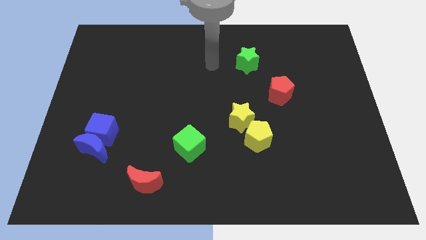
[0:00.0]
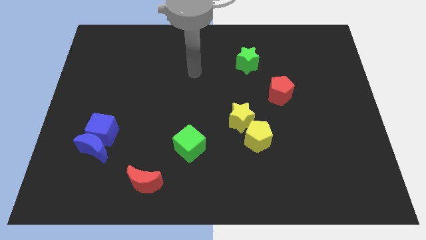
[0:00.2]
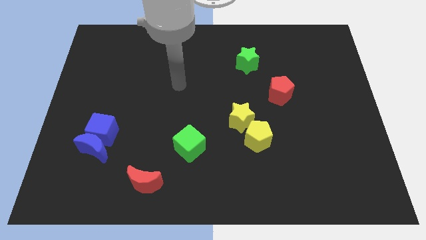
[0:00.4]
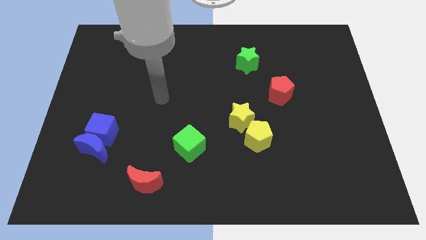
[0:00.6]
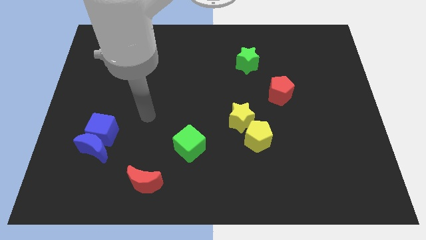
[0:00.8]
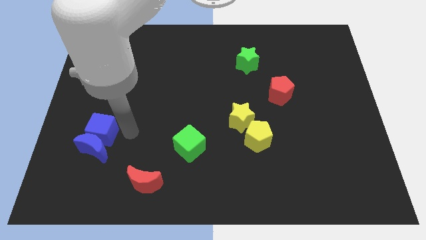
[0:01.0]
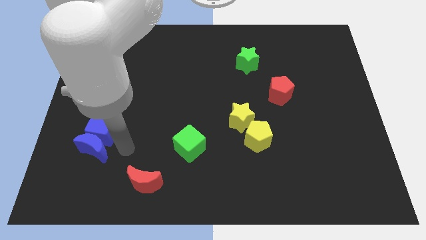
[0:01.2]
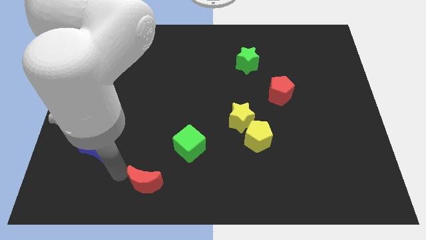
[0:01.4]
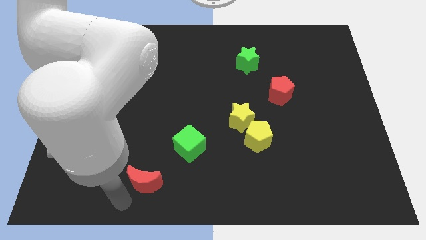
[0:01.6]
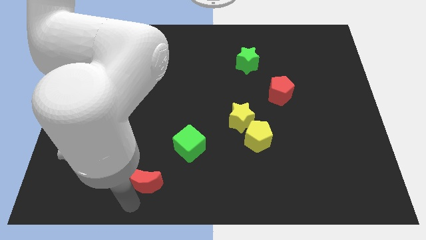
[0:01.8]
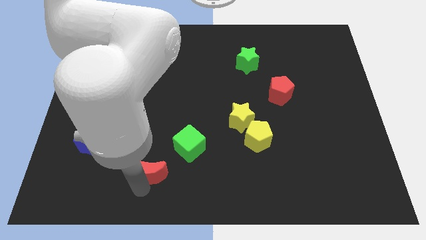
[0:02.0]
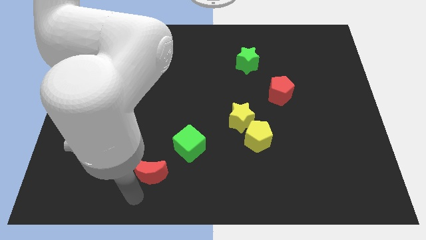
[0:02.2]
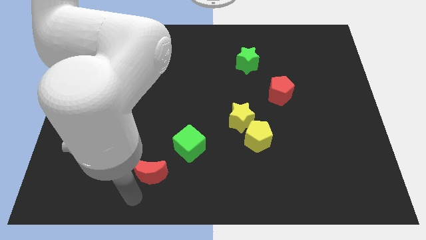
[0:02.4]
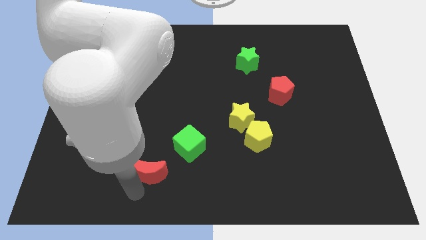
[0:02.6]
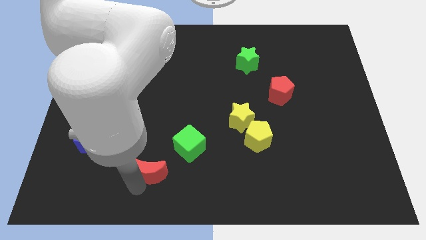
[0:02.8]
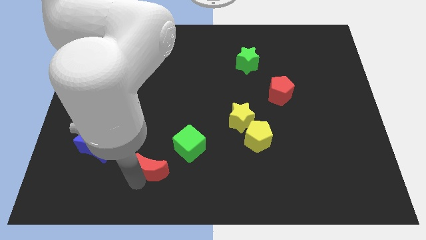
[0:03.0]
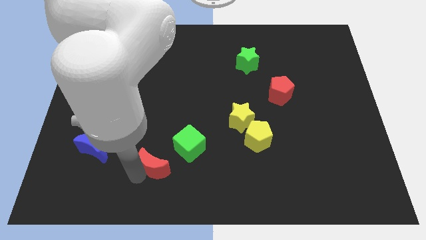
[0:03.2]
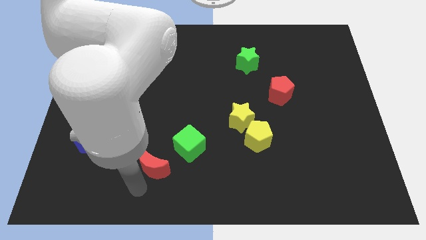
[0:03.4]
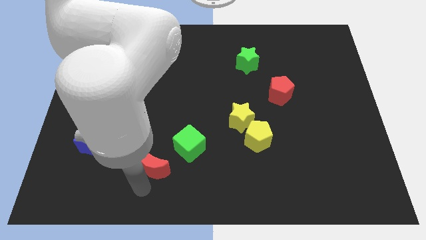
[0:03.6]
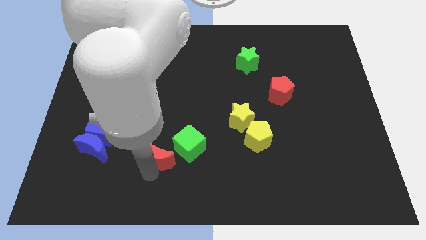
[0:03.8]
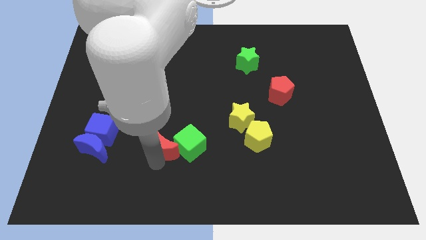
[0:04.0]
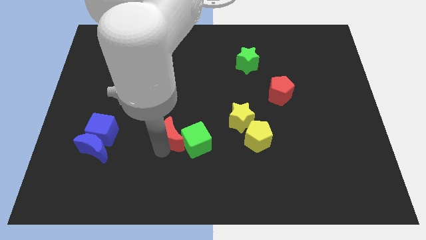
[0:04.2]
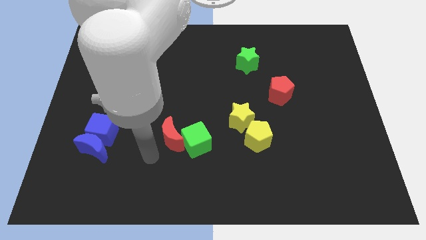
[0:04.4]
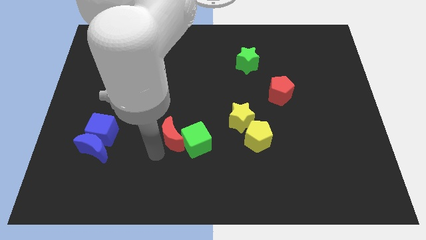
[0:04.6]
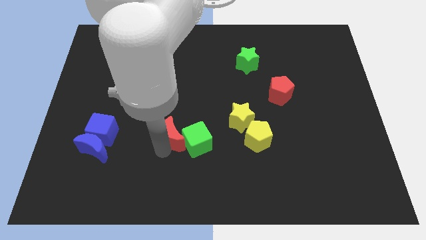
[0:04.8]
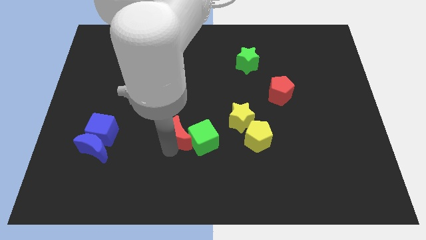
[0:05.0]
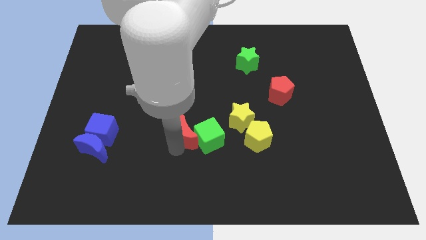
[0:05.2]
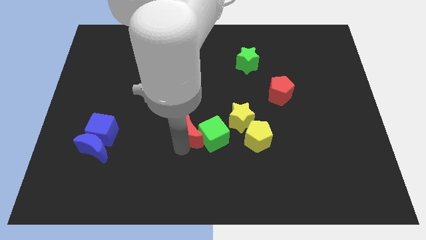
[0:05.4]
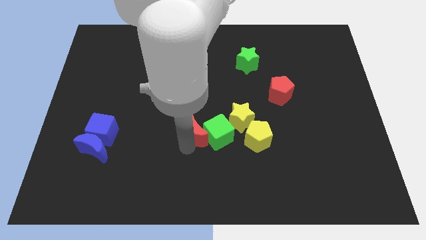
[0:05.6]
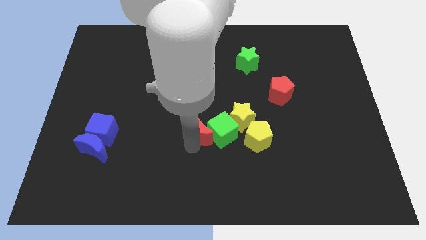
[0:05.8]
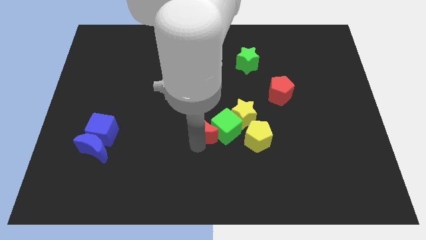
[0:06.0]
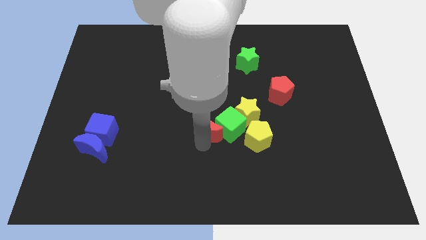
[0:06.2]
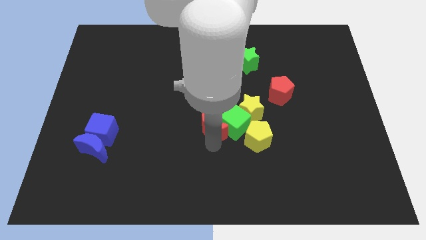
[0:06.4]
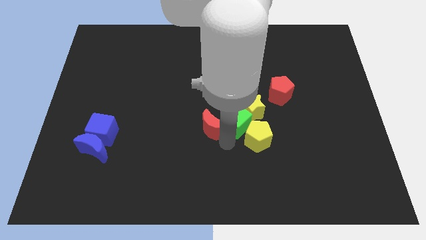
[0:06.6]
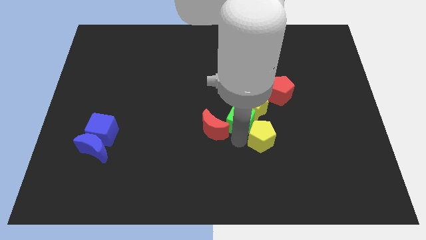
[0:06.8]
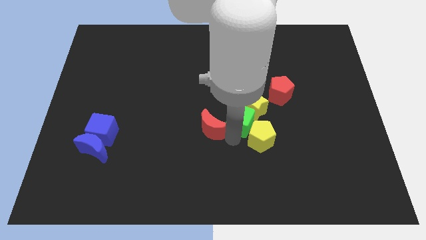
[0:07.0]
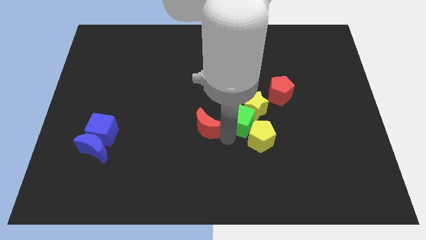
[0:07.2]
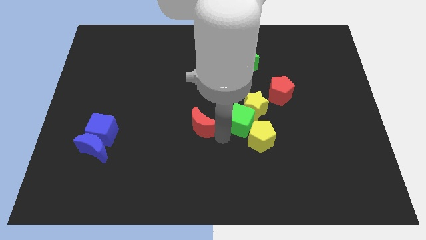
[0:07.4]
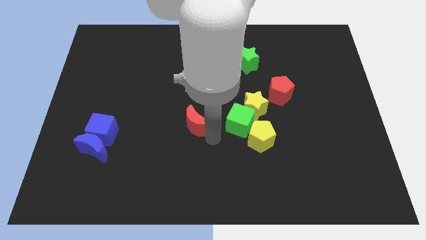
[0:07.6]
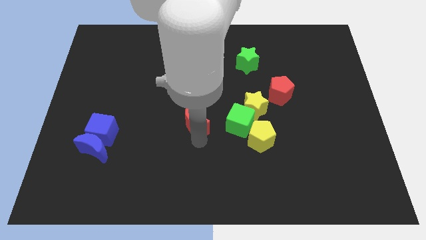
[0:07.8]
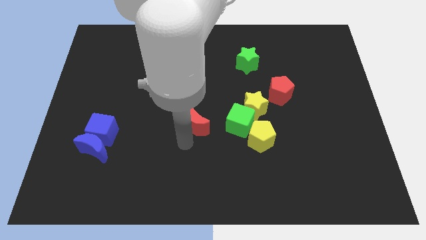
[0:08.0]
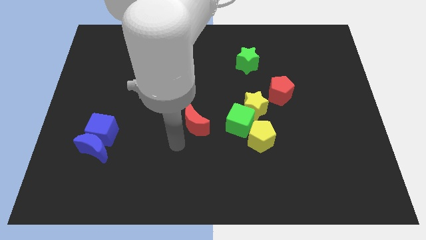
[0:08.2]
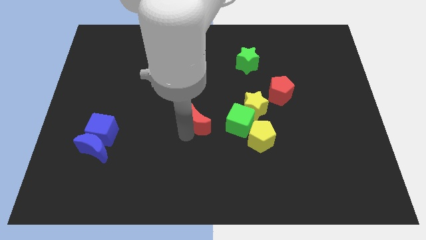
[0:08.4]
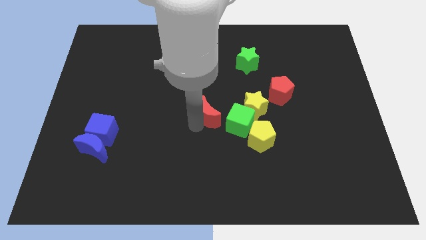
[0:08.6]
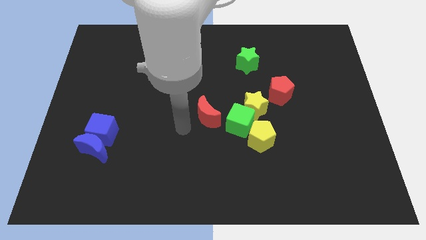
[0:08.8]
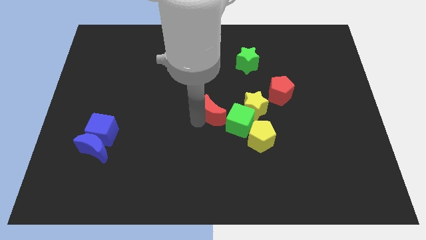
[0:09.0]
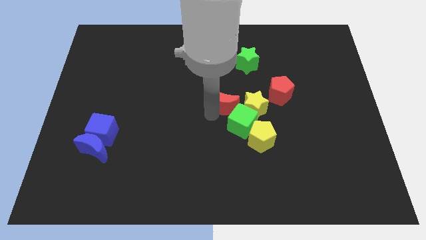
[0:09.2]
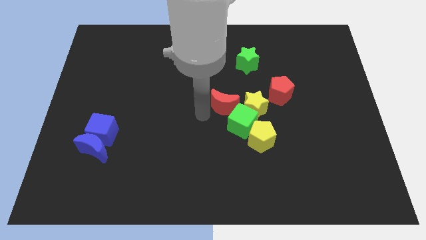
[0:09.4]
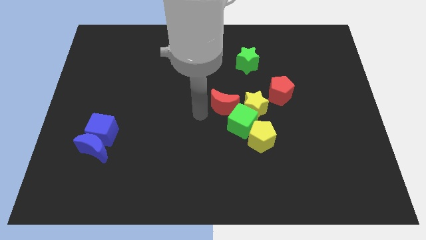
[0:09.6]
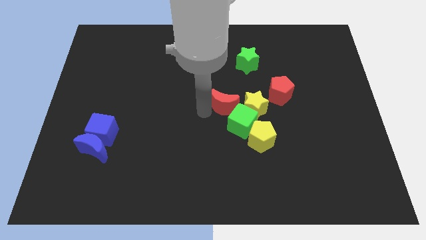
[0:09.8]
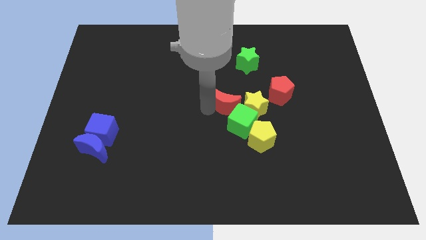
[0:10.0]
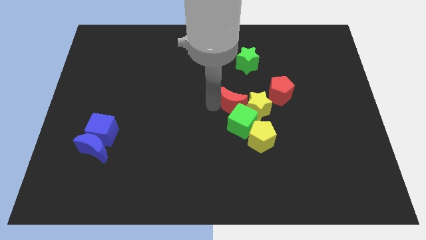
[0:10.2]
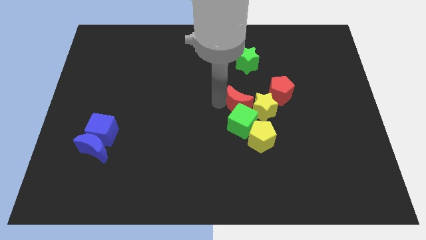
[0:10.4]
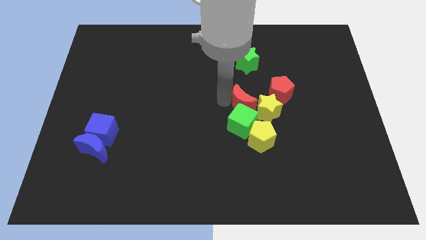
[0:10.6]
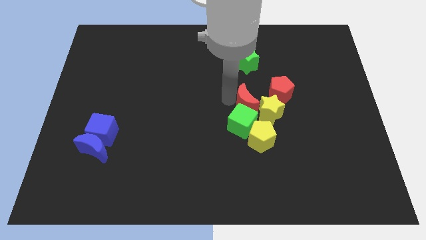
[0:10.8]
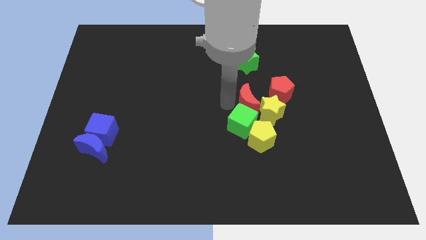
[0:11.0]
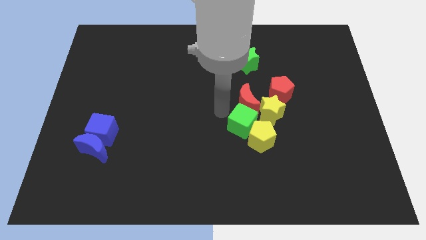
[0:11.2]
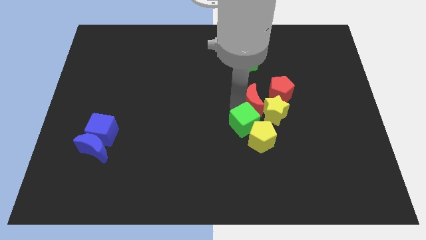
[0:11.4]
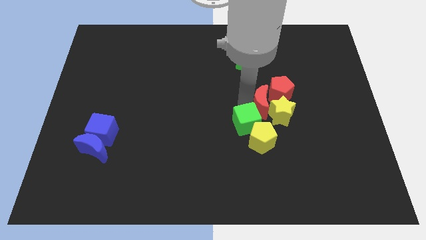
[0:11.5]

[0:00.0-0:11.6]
push the red moon next to the red pentagon

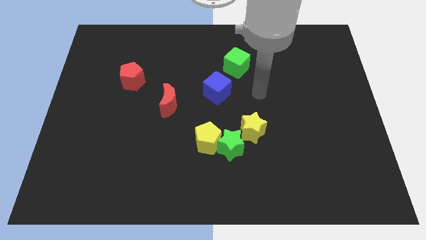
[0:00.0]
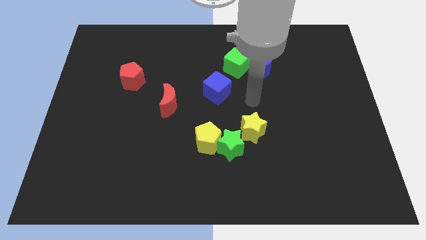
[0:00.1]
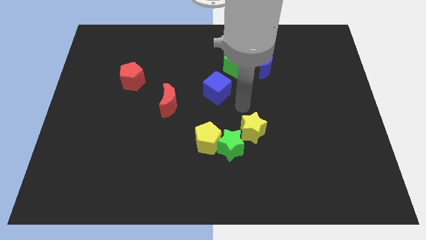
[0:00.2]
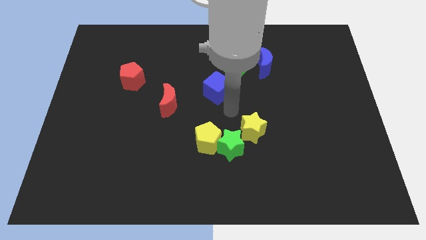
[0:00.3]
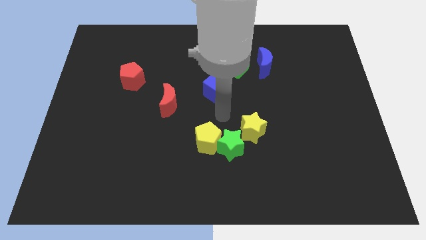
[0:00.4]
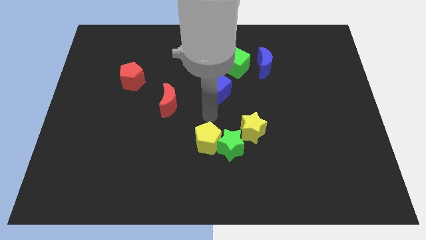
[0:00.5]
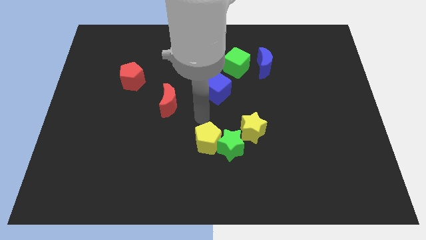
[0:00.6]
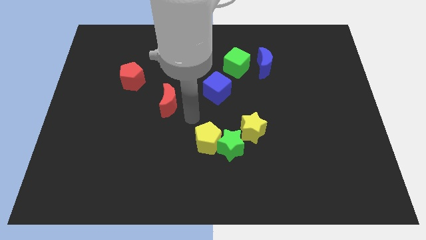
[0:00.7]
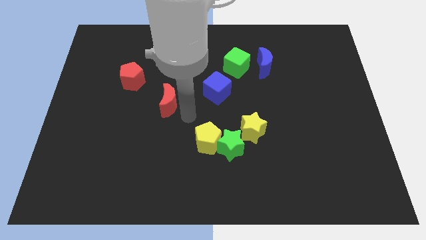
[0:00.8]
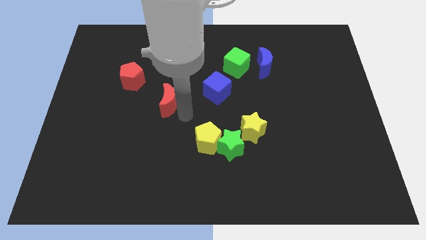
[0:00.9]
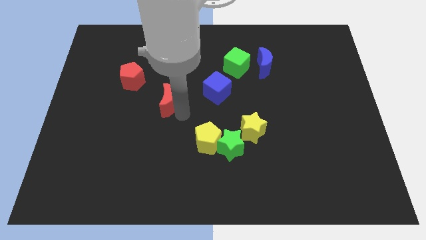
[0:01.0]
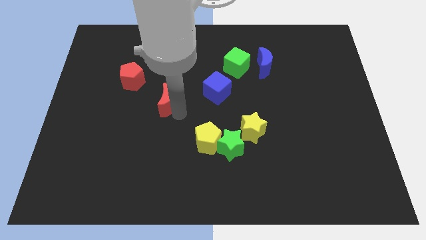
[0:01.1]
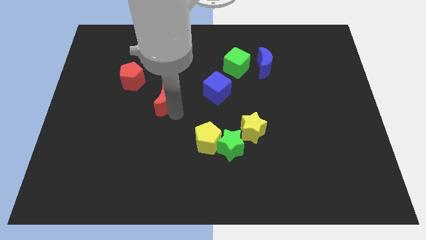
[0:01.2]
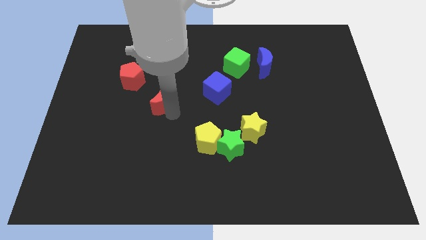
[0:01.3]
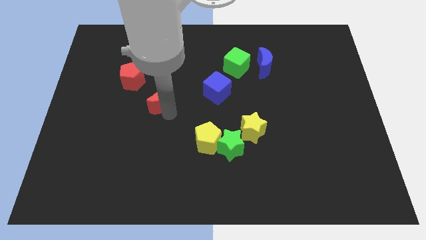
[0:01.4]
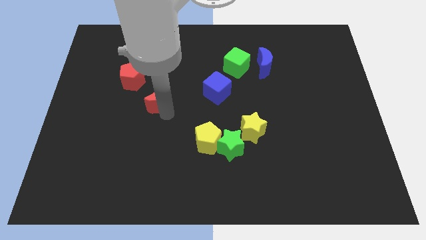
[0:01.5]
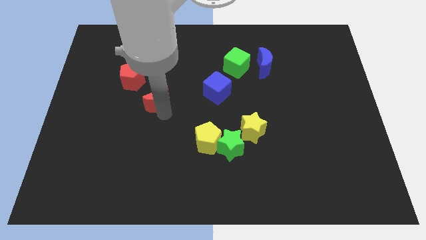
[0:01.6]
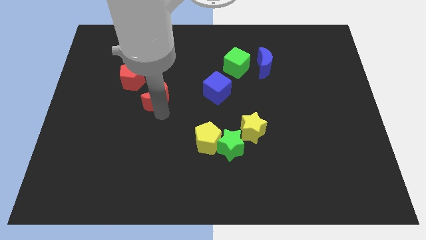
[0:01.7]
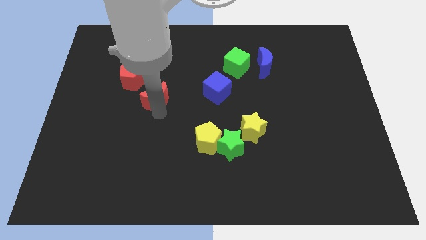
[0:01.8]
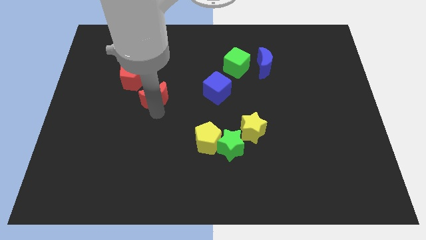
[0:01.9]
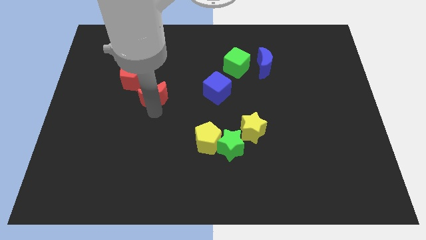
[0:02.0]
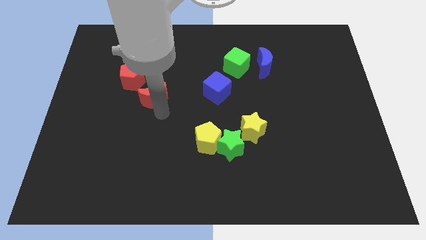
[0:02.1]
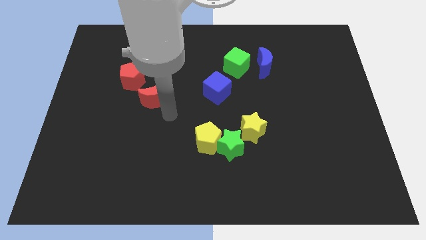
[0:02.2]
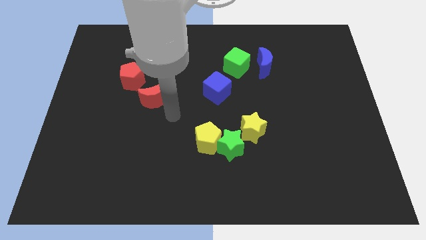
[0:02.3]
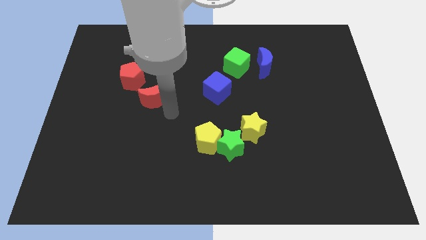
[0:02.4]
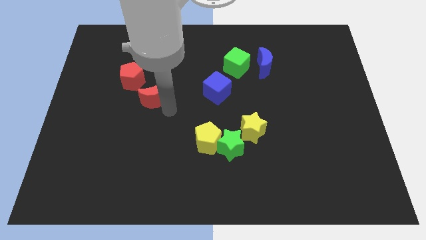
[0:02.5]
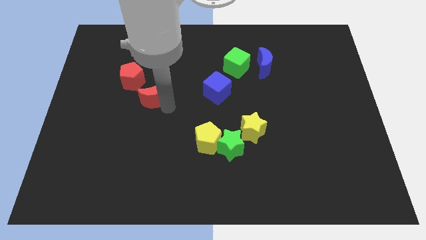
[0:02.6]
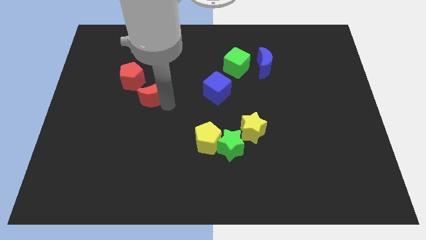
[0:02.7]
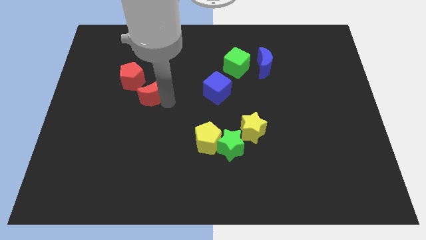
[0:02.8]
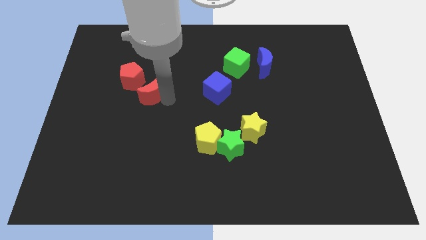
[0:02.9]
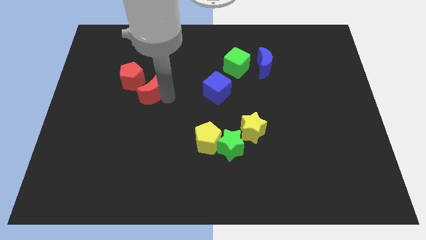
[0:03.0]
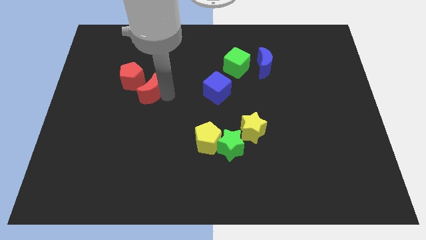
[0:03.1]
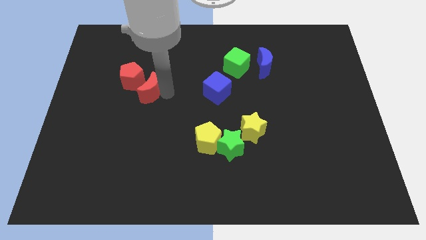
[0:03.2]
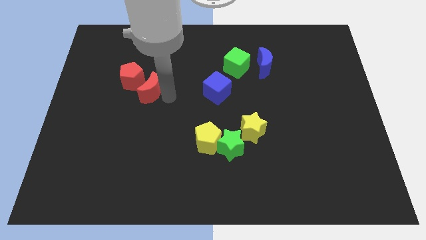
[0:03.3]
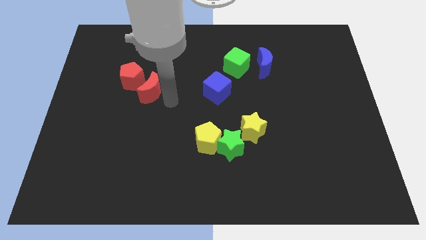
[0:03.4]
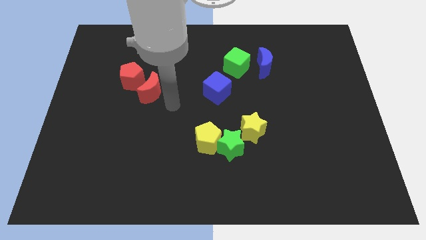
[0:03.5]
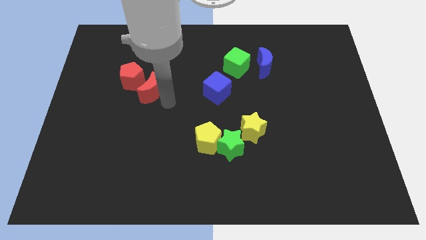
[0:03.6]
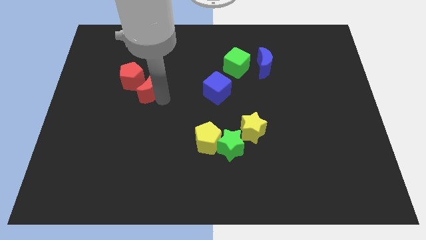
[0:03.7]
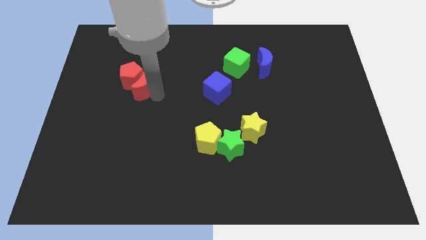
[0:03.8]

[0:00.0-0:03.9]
slide the red moon towards the red pentagon
